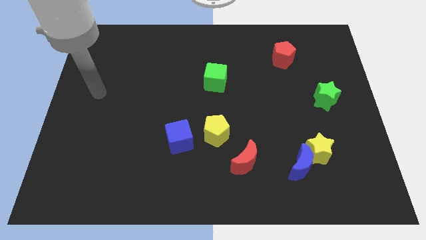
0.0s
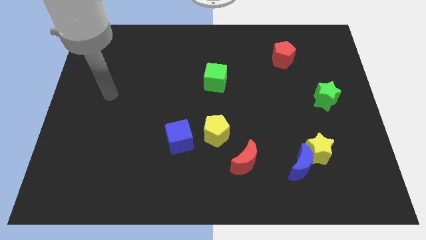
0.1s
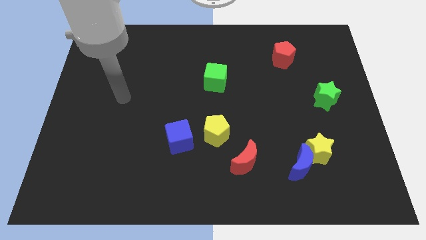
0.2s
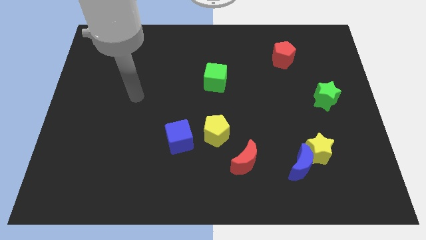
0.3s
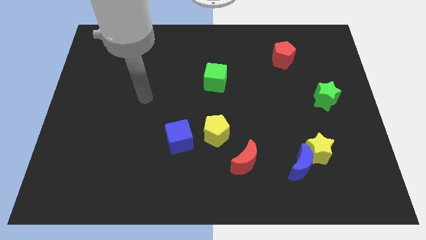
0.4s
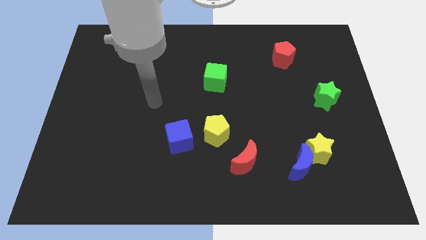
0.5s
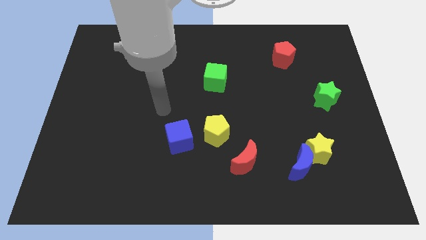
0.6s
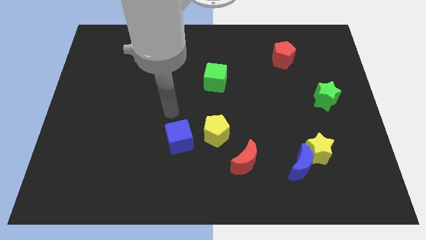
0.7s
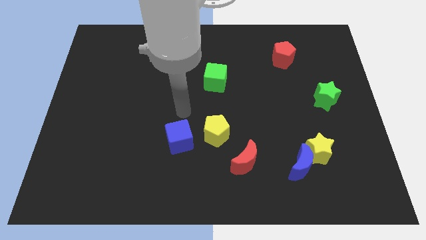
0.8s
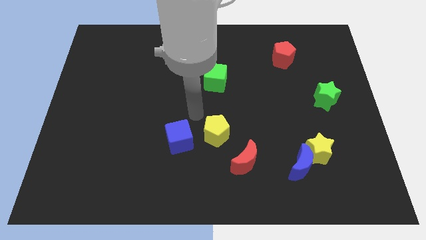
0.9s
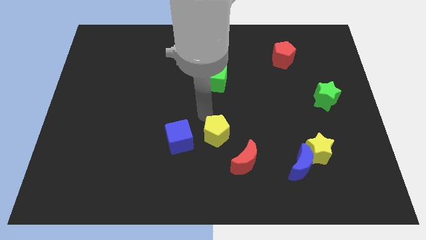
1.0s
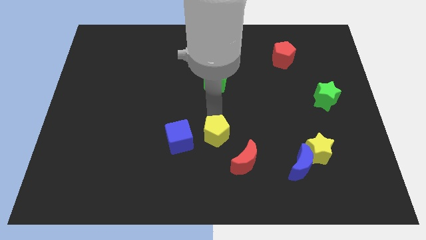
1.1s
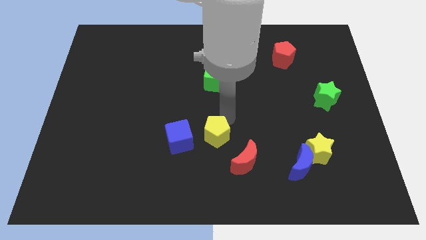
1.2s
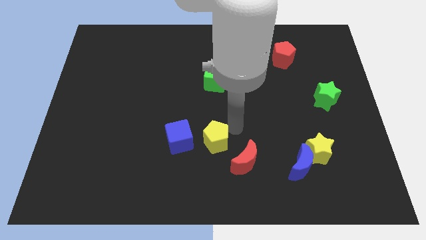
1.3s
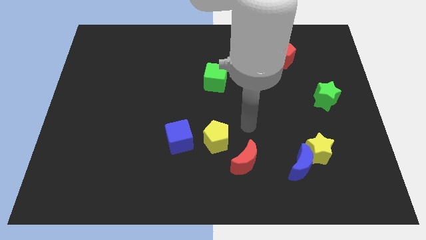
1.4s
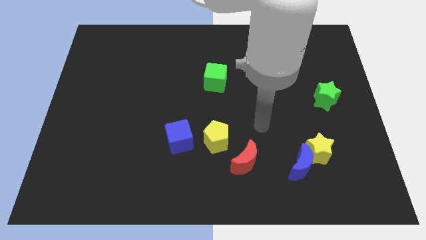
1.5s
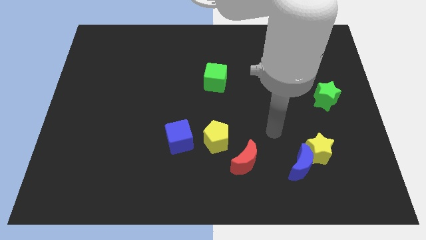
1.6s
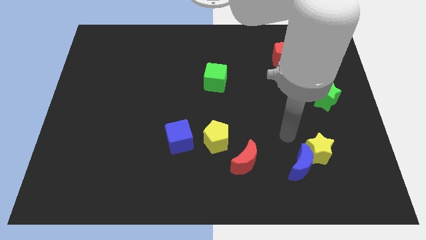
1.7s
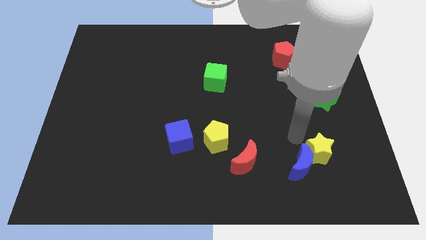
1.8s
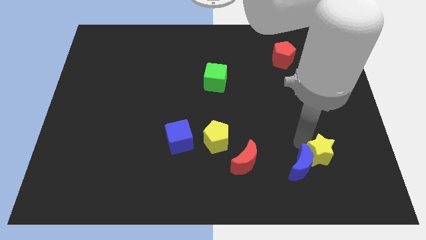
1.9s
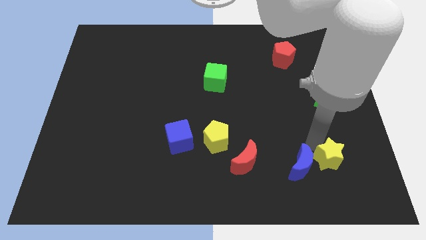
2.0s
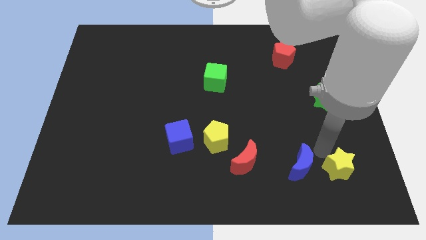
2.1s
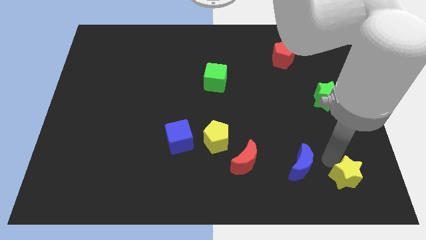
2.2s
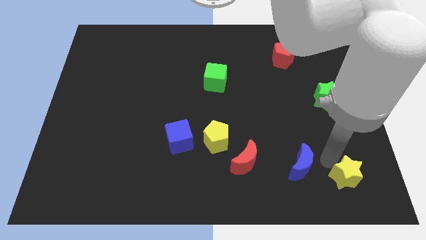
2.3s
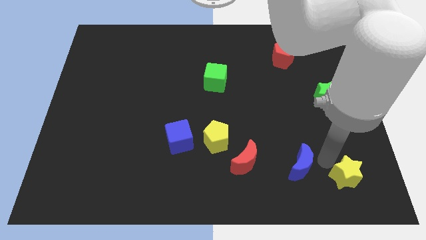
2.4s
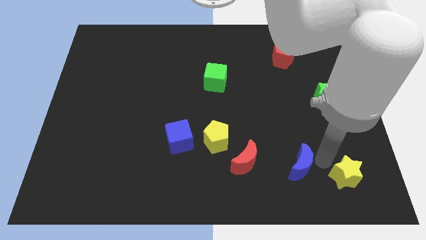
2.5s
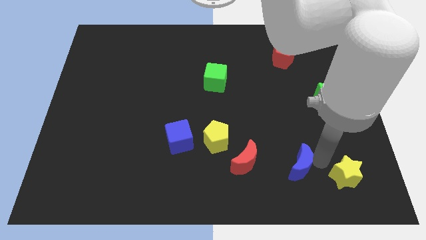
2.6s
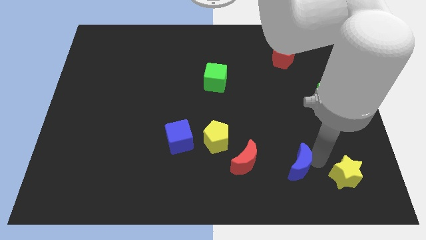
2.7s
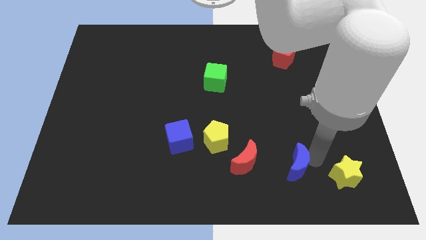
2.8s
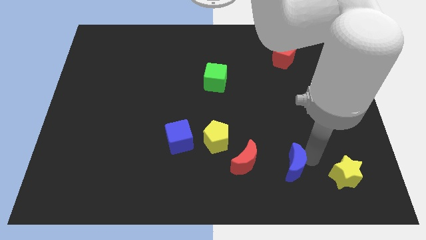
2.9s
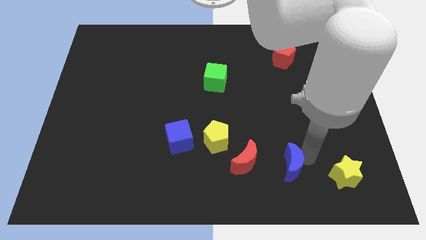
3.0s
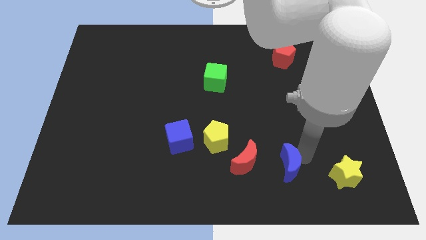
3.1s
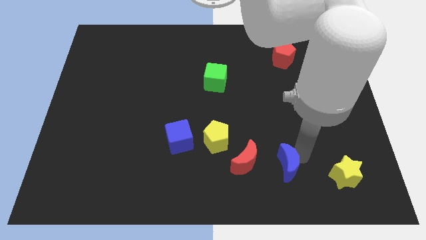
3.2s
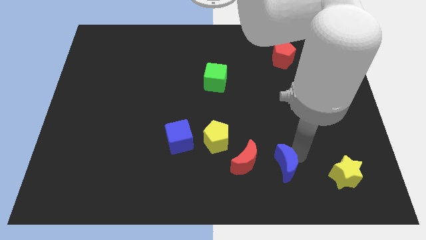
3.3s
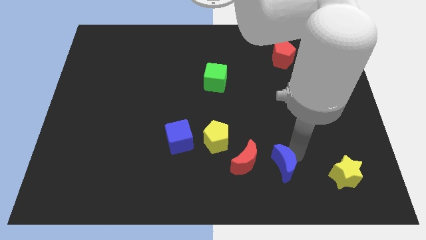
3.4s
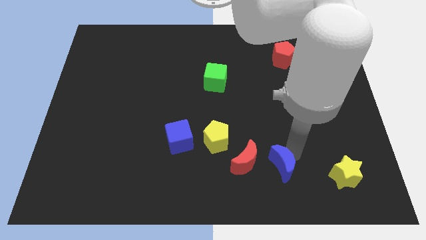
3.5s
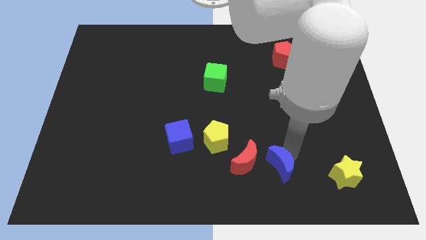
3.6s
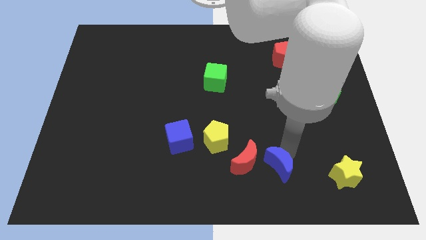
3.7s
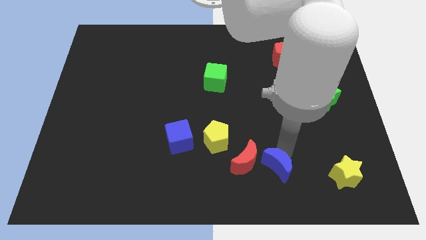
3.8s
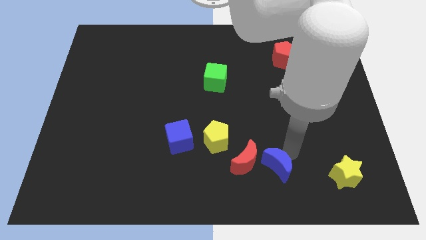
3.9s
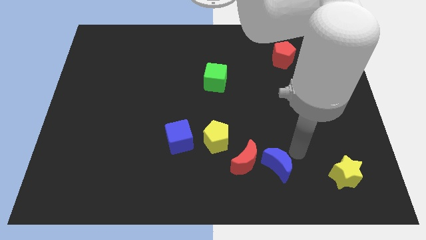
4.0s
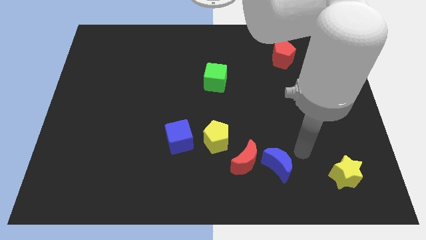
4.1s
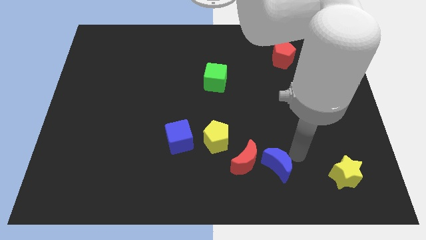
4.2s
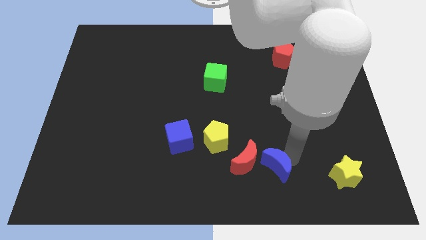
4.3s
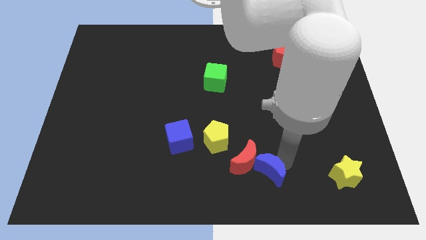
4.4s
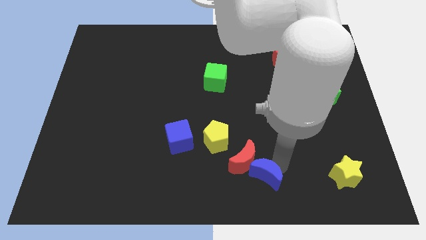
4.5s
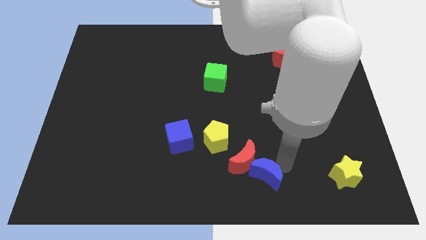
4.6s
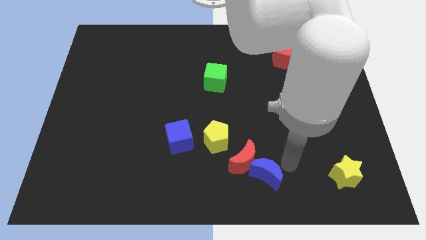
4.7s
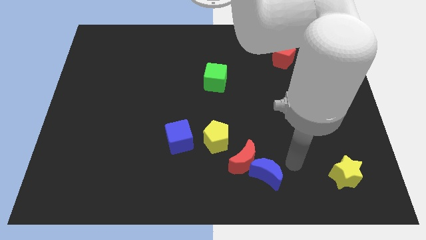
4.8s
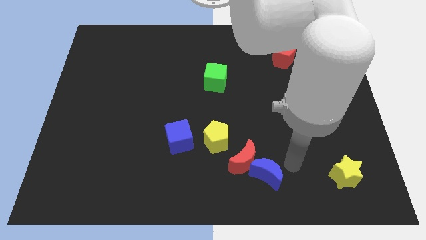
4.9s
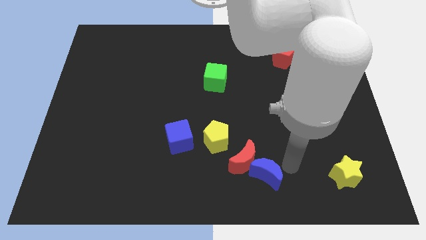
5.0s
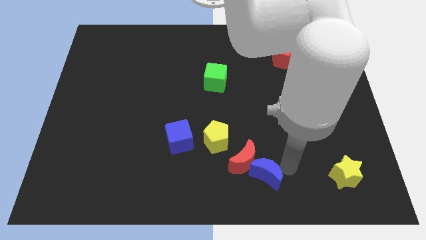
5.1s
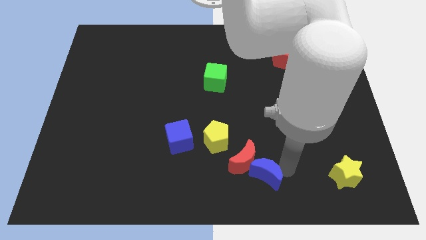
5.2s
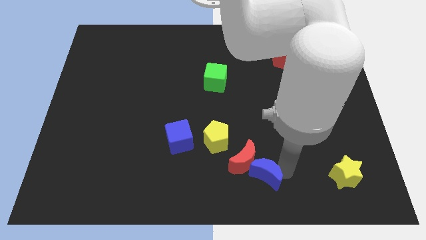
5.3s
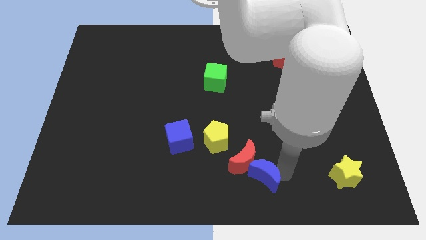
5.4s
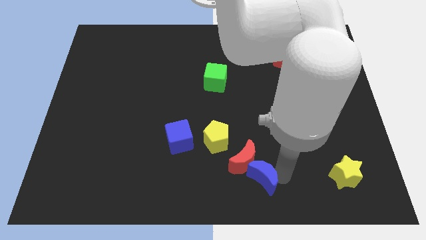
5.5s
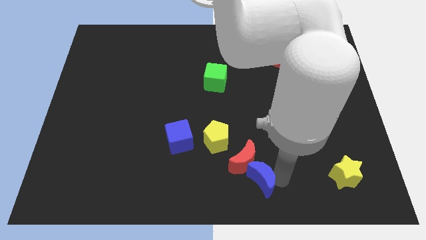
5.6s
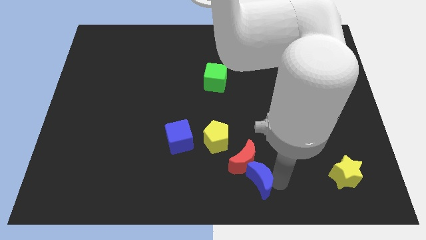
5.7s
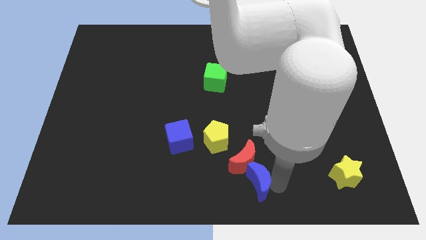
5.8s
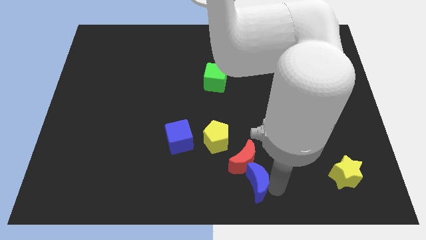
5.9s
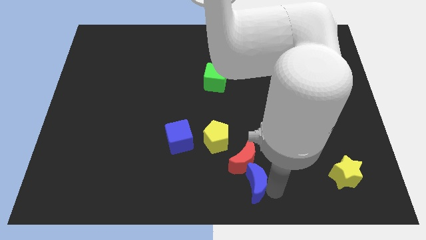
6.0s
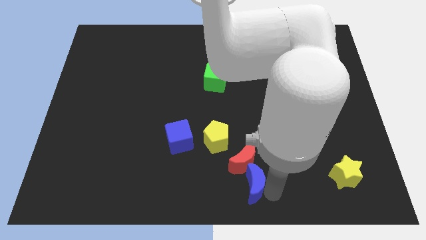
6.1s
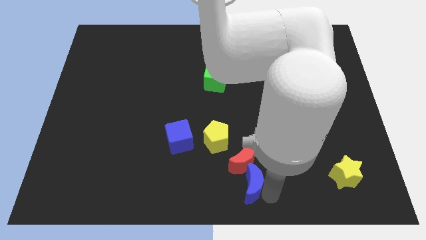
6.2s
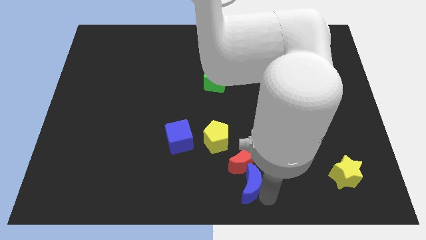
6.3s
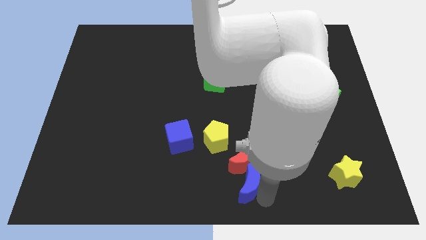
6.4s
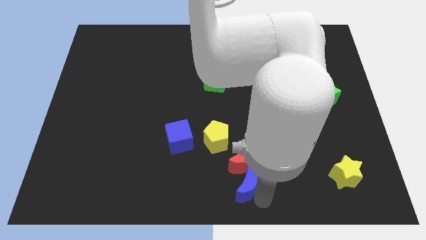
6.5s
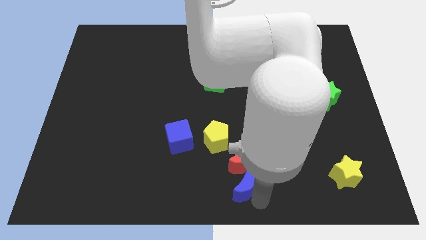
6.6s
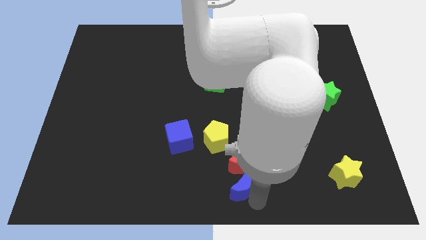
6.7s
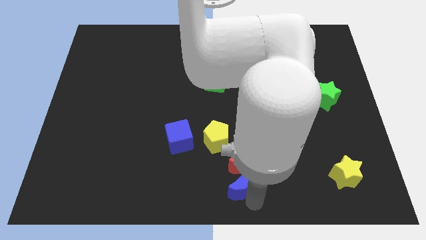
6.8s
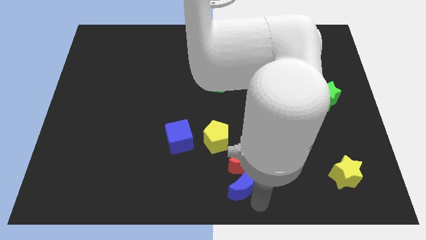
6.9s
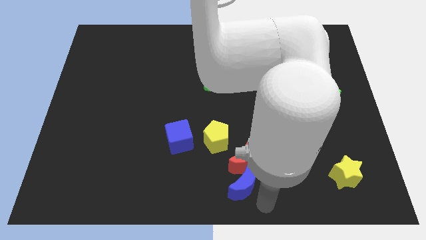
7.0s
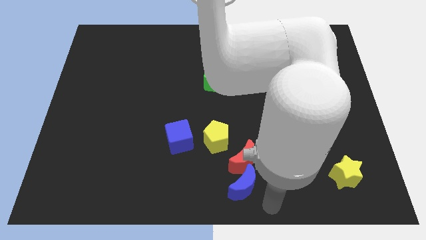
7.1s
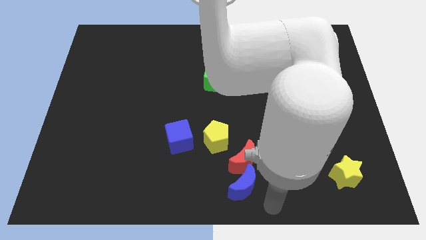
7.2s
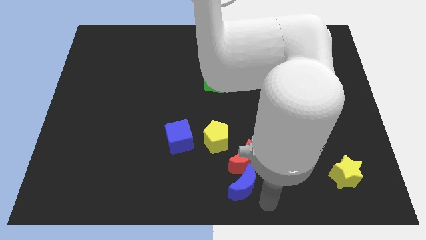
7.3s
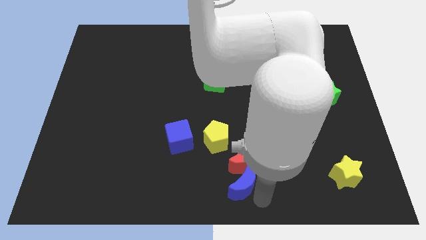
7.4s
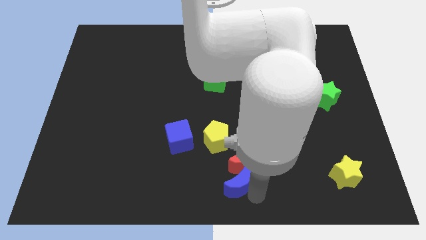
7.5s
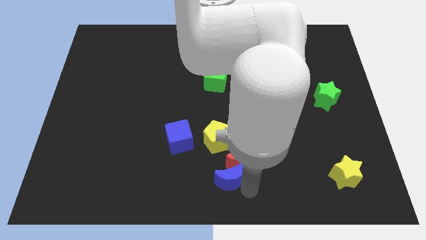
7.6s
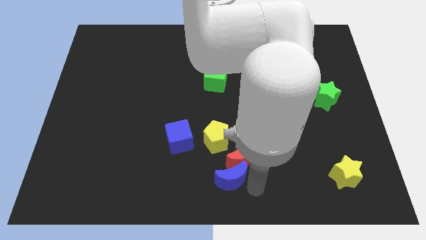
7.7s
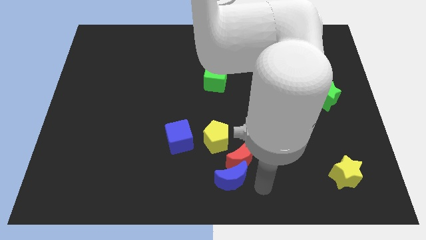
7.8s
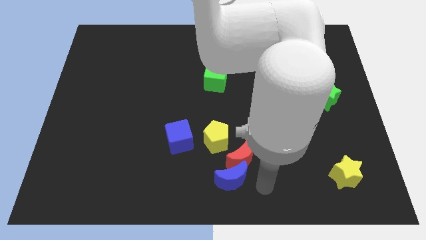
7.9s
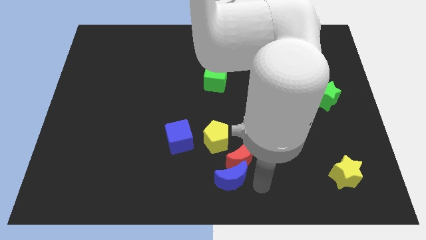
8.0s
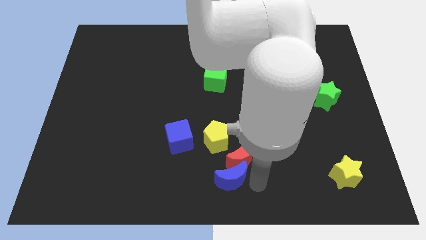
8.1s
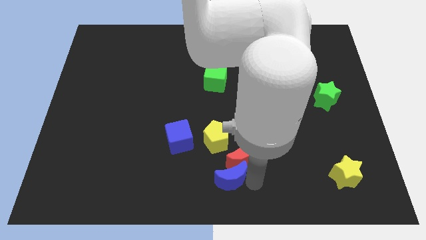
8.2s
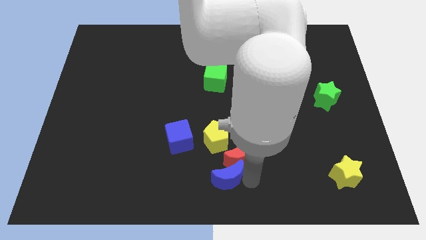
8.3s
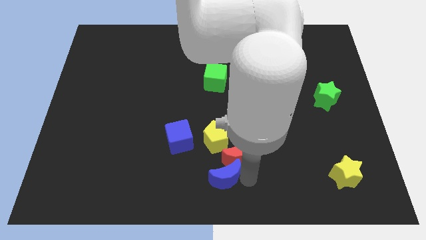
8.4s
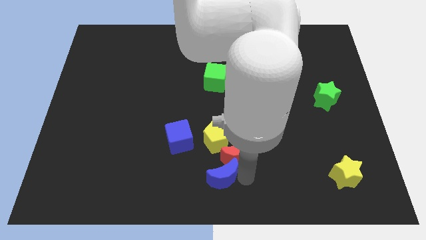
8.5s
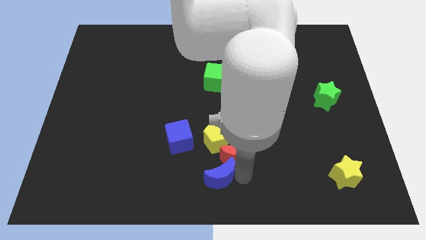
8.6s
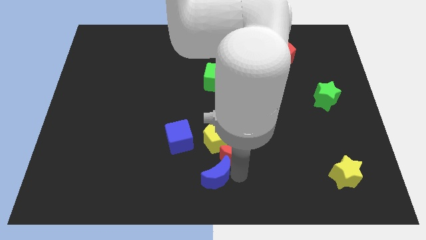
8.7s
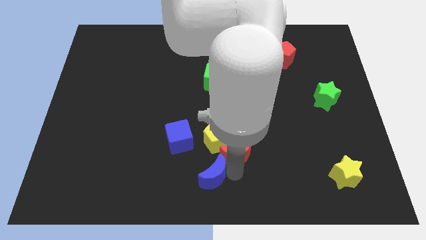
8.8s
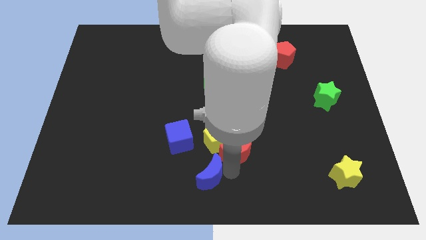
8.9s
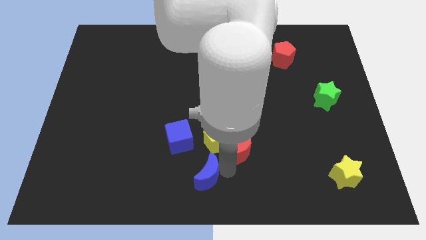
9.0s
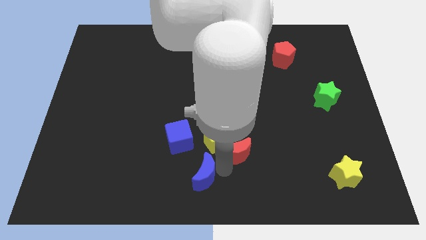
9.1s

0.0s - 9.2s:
slide the blue moon left
